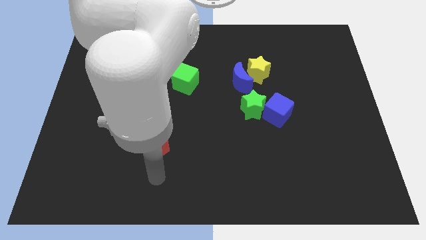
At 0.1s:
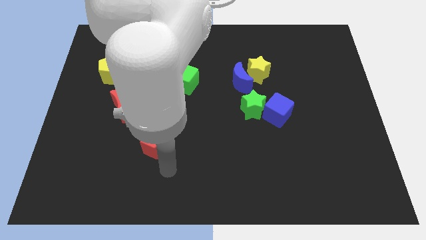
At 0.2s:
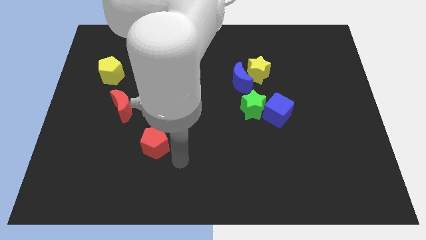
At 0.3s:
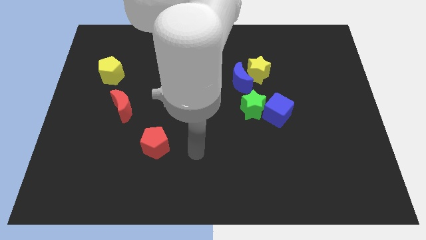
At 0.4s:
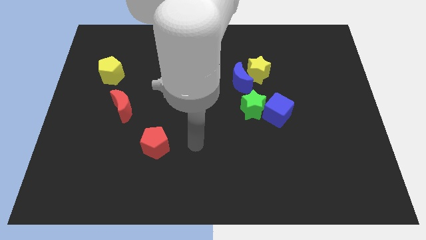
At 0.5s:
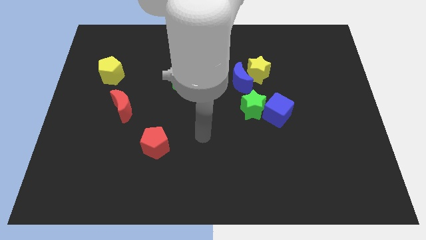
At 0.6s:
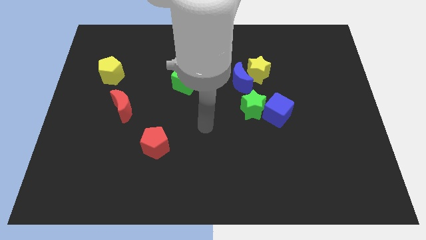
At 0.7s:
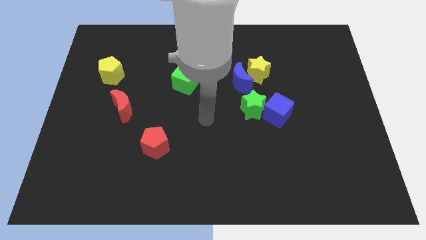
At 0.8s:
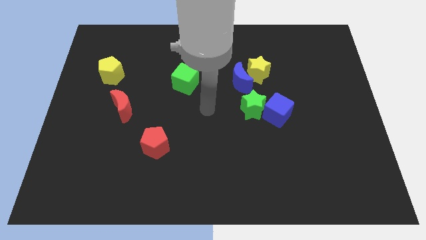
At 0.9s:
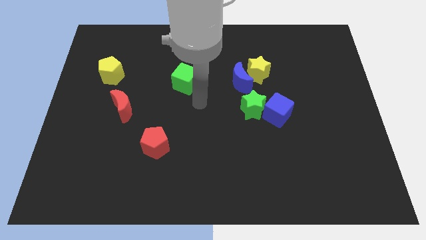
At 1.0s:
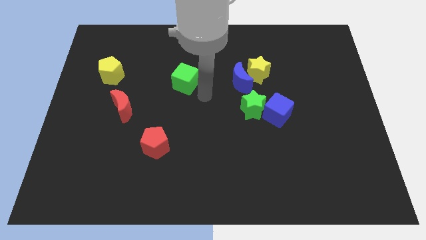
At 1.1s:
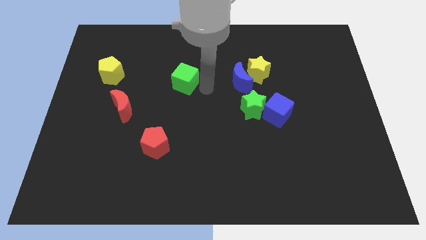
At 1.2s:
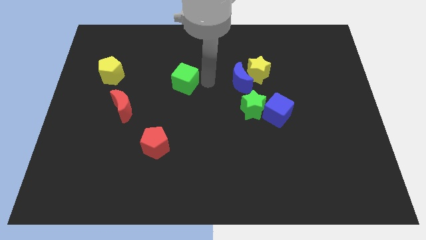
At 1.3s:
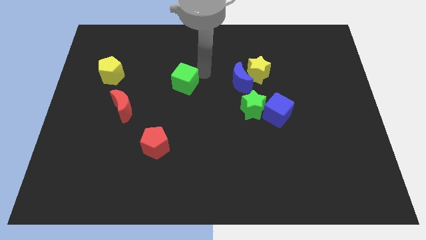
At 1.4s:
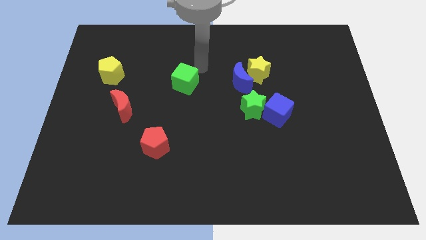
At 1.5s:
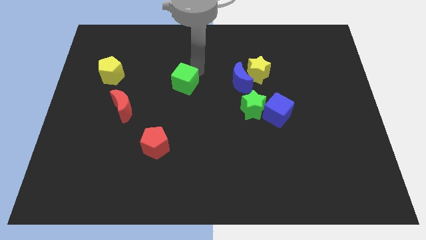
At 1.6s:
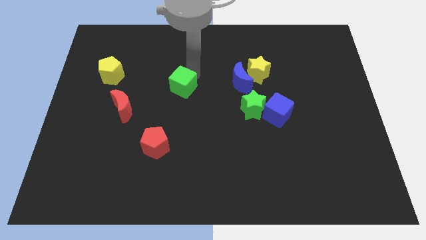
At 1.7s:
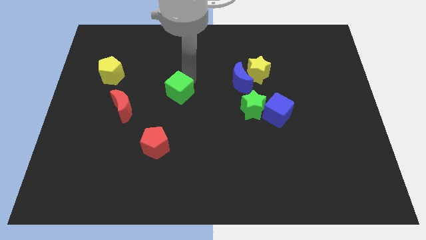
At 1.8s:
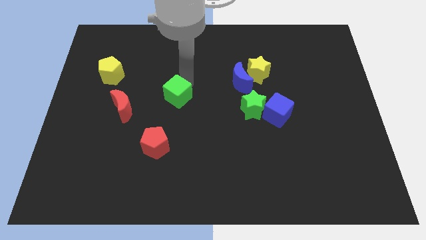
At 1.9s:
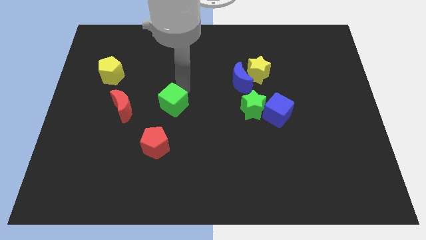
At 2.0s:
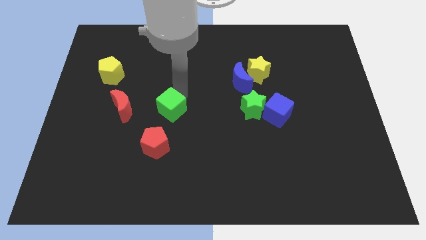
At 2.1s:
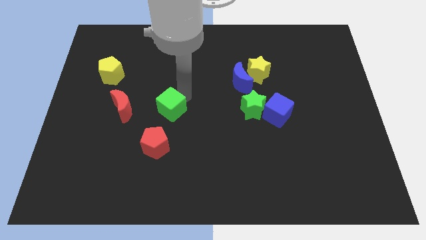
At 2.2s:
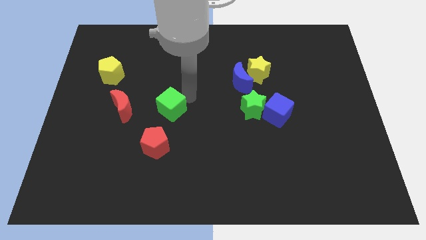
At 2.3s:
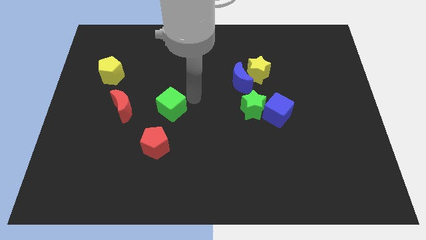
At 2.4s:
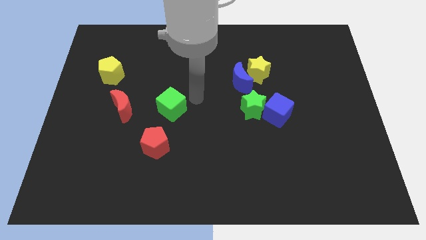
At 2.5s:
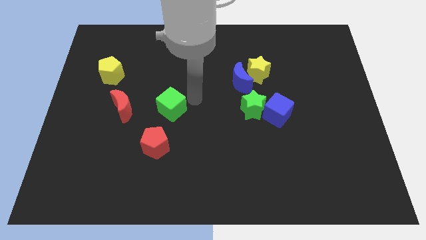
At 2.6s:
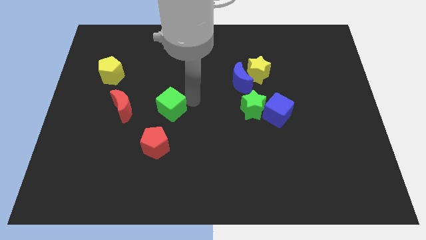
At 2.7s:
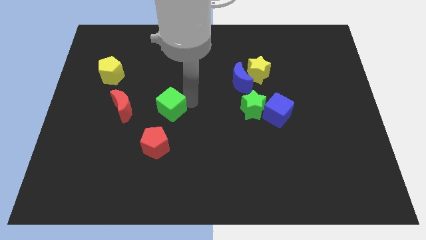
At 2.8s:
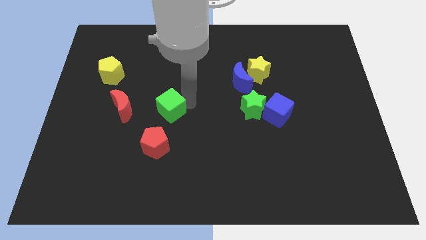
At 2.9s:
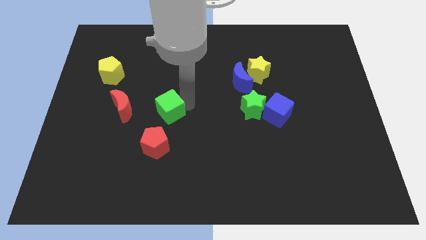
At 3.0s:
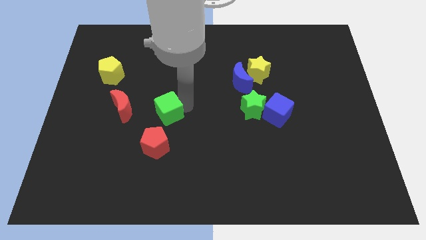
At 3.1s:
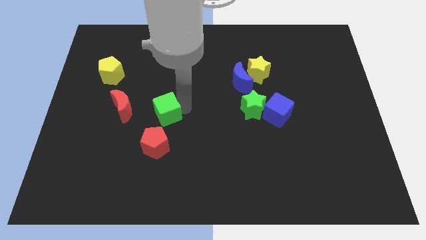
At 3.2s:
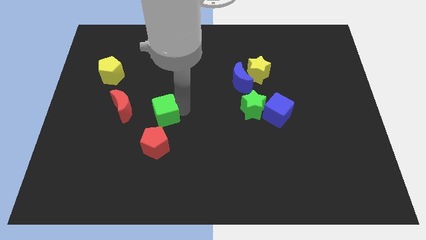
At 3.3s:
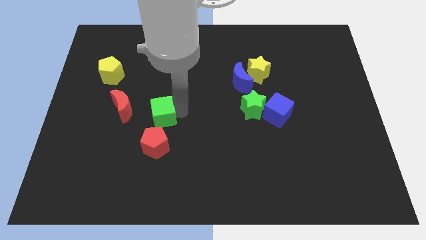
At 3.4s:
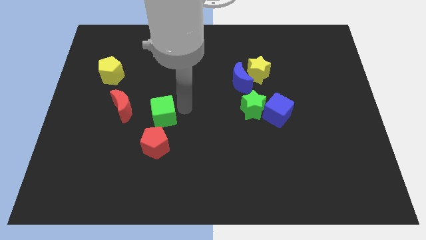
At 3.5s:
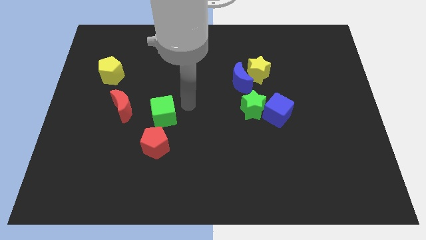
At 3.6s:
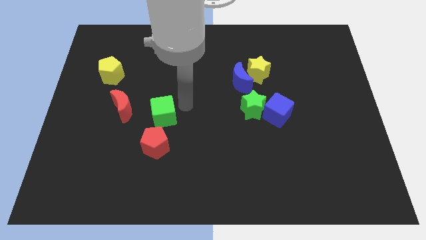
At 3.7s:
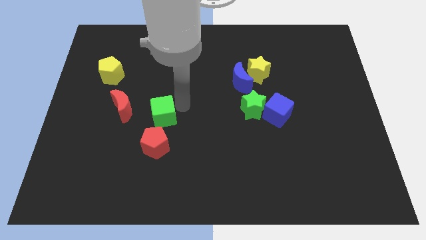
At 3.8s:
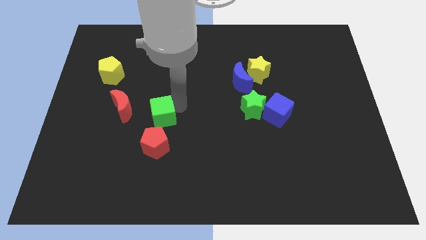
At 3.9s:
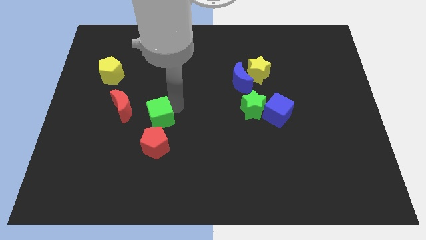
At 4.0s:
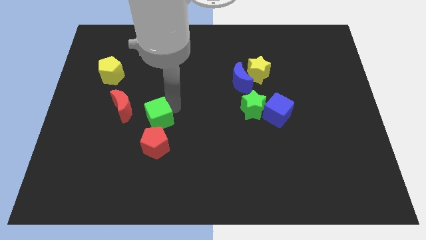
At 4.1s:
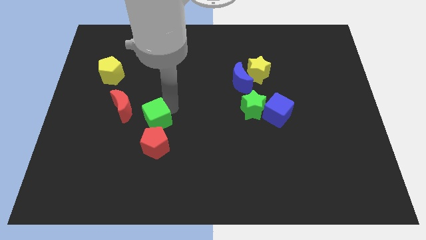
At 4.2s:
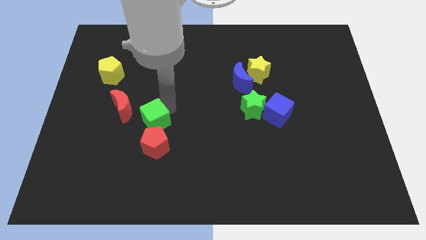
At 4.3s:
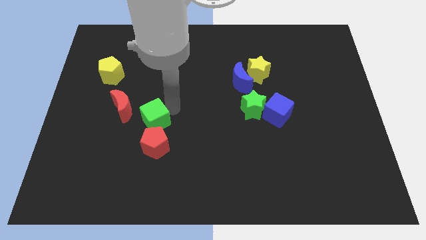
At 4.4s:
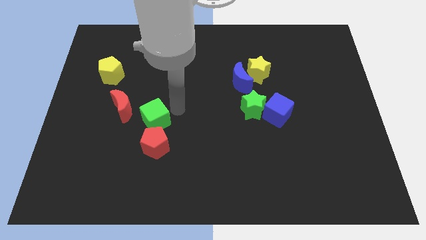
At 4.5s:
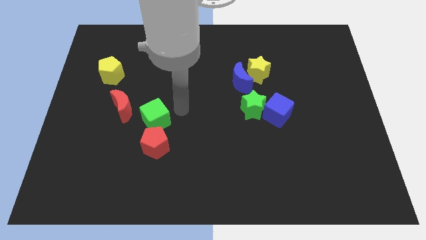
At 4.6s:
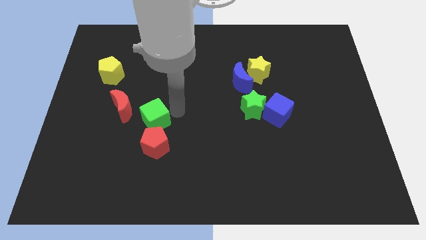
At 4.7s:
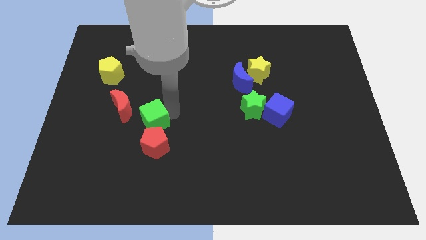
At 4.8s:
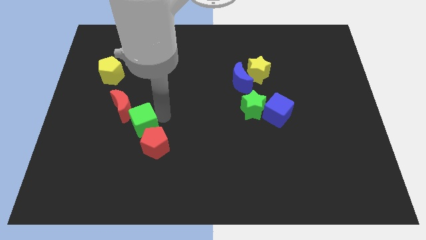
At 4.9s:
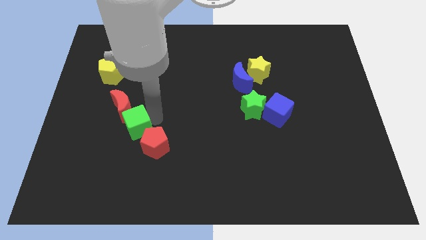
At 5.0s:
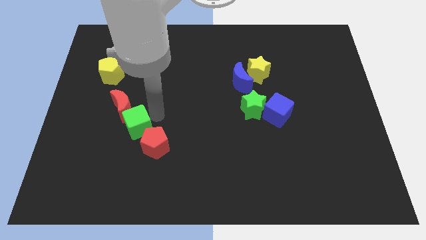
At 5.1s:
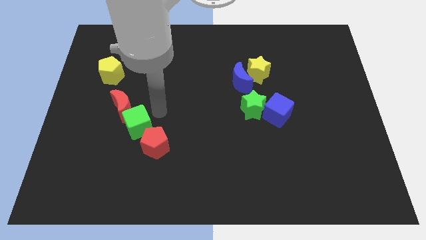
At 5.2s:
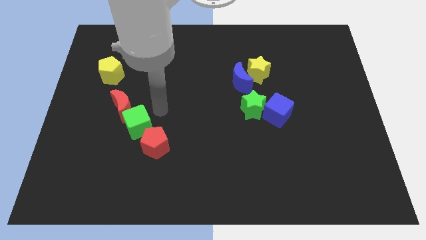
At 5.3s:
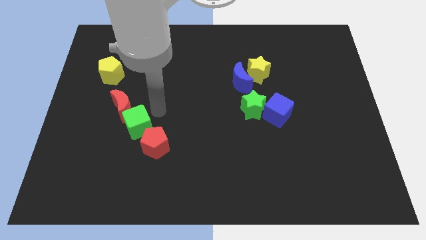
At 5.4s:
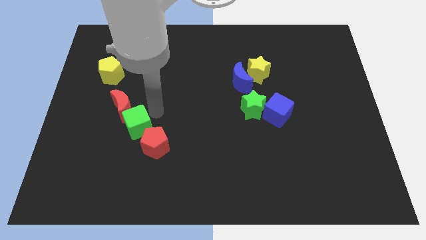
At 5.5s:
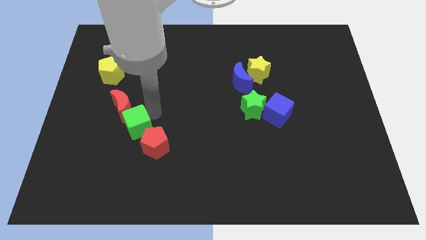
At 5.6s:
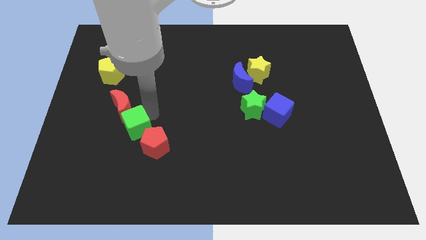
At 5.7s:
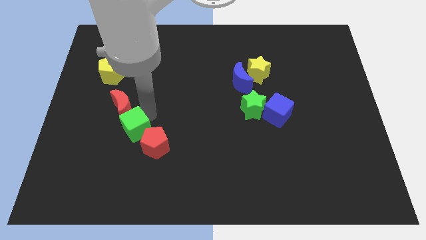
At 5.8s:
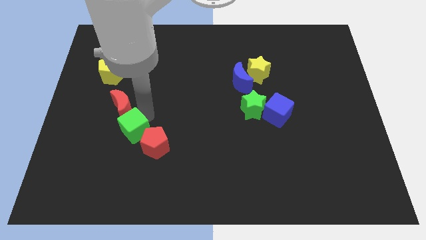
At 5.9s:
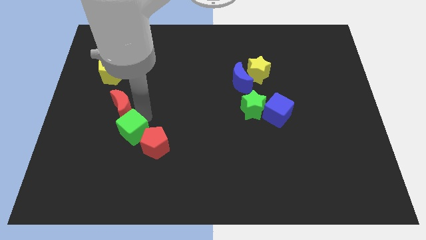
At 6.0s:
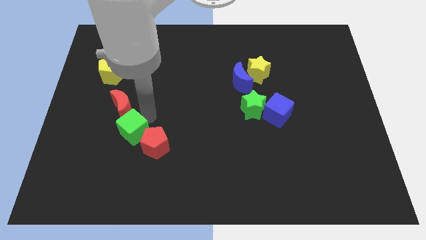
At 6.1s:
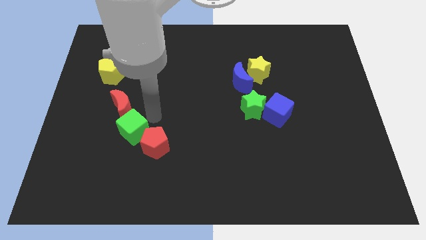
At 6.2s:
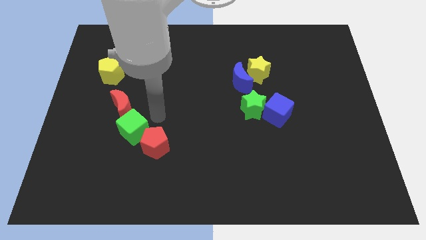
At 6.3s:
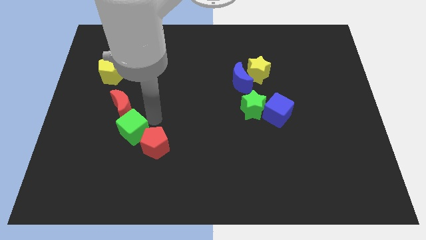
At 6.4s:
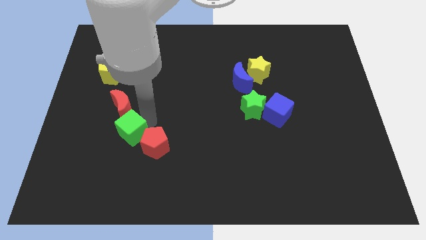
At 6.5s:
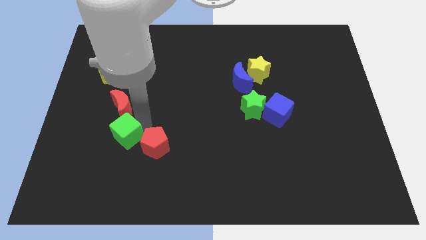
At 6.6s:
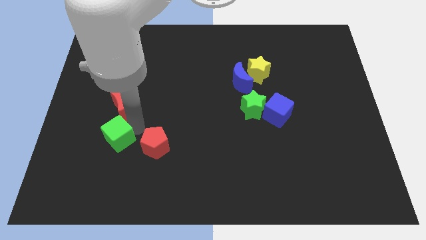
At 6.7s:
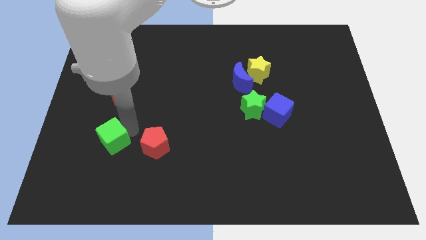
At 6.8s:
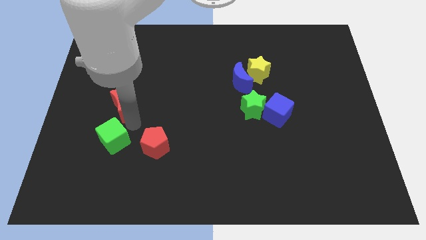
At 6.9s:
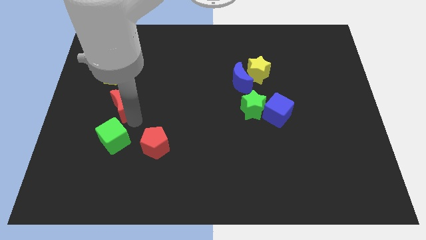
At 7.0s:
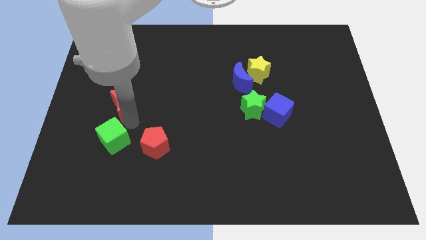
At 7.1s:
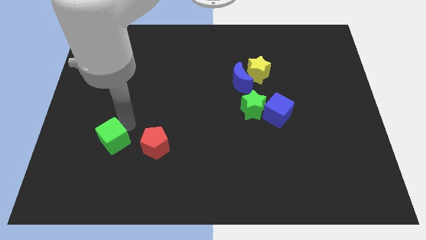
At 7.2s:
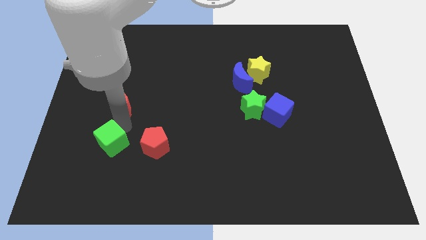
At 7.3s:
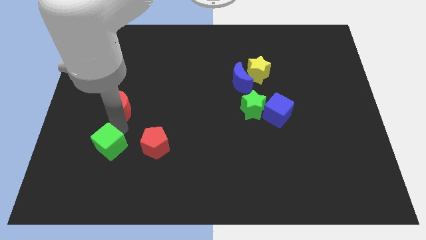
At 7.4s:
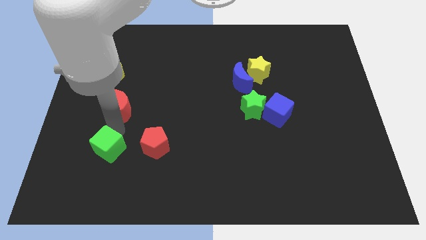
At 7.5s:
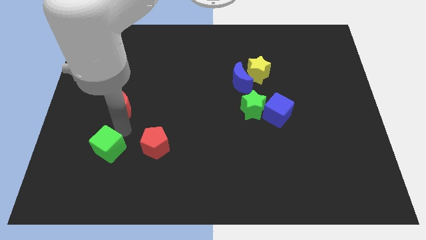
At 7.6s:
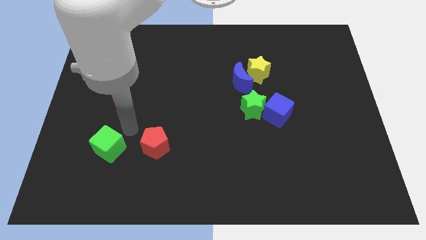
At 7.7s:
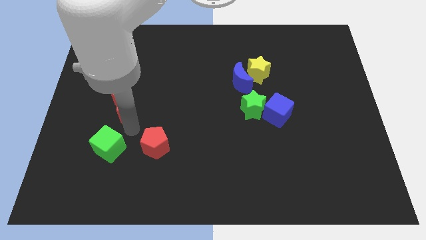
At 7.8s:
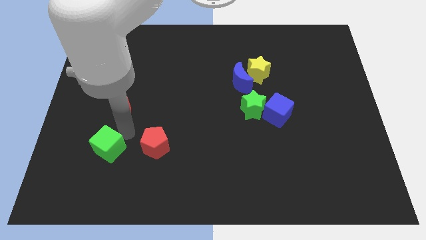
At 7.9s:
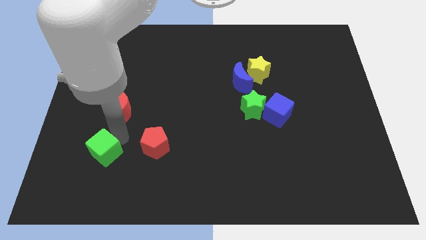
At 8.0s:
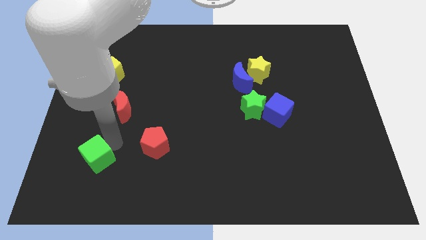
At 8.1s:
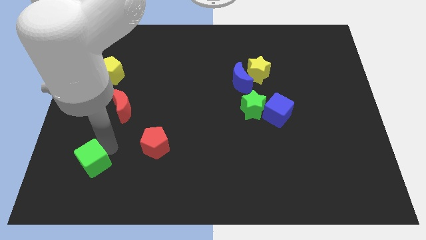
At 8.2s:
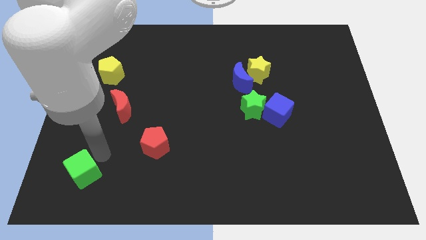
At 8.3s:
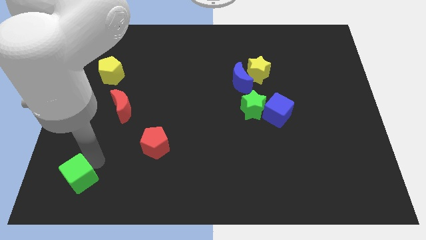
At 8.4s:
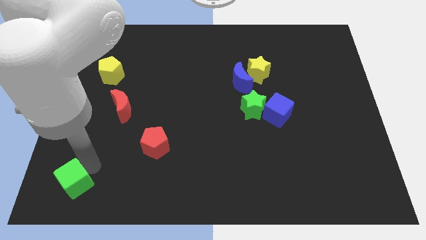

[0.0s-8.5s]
slide the green cube to the bottom left
